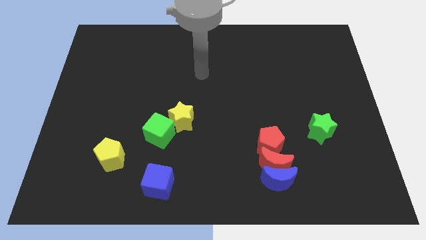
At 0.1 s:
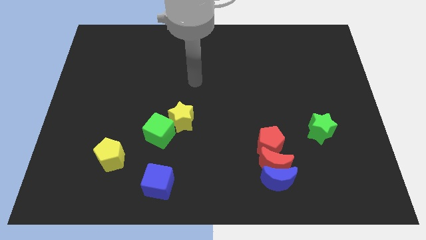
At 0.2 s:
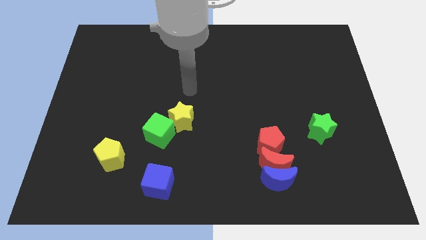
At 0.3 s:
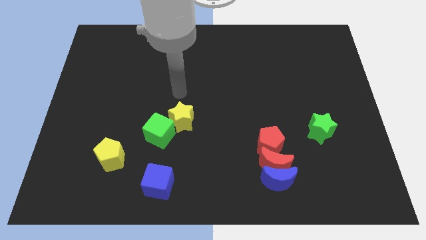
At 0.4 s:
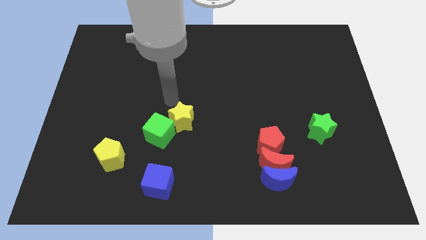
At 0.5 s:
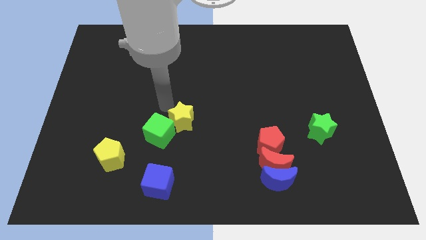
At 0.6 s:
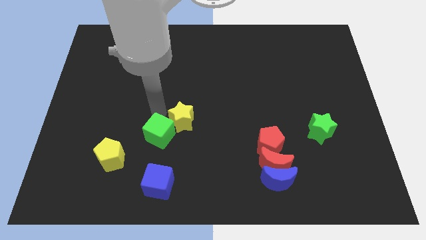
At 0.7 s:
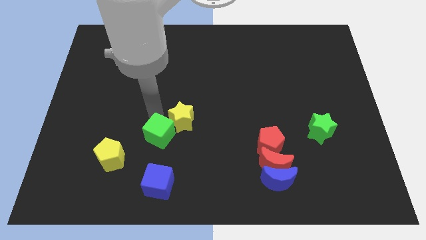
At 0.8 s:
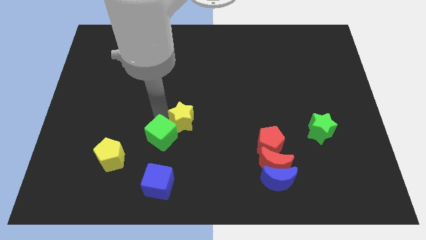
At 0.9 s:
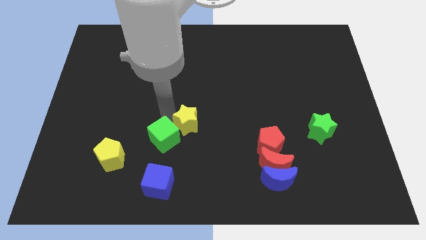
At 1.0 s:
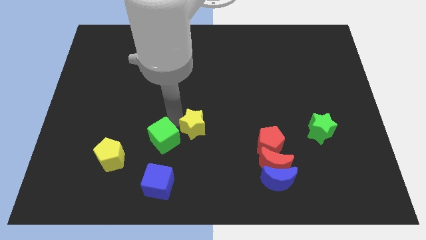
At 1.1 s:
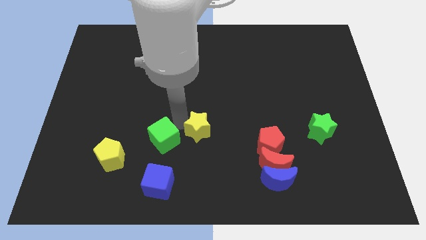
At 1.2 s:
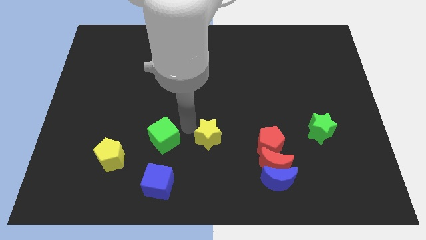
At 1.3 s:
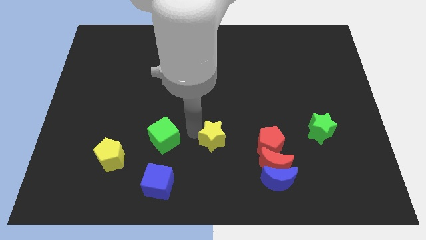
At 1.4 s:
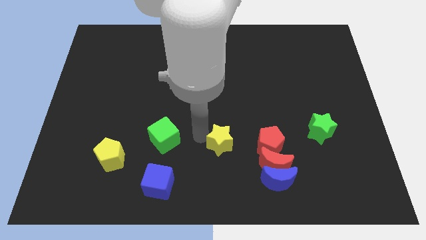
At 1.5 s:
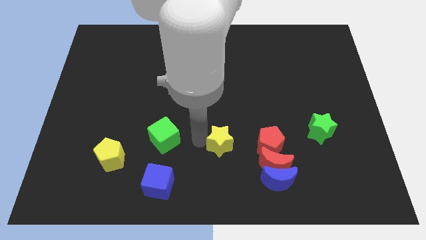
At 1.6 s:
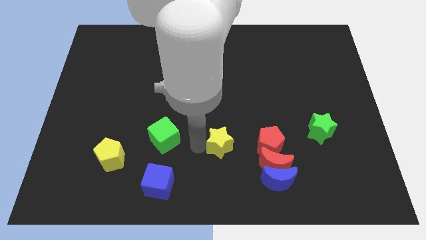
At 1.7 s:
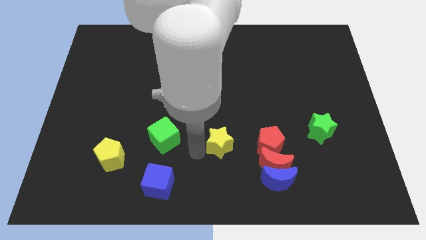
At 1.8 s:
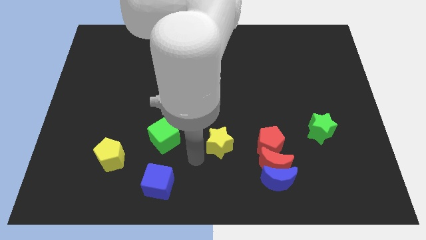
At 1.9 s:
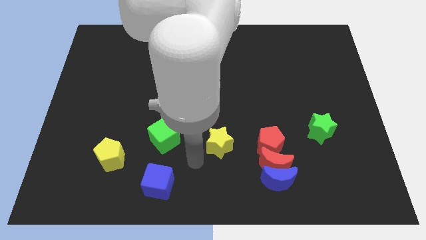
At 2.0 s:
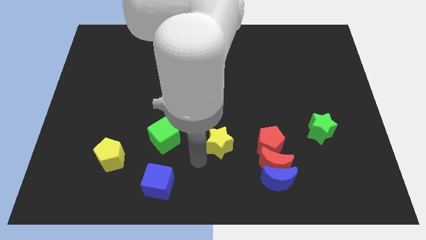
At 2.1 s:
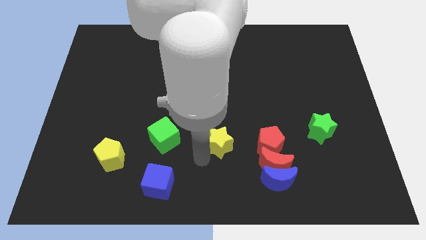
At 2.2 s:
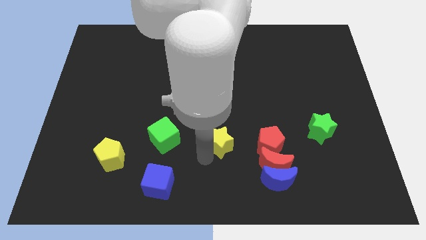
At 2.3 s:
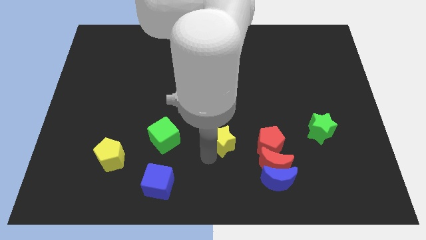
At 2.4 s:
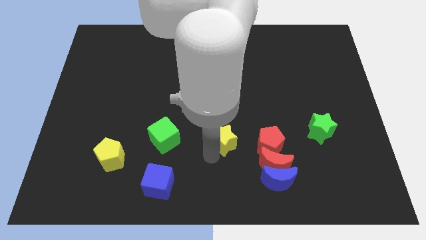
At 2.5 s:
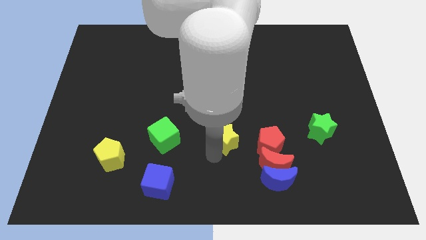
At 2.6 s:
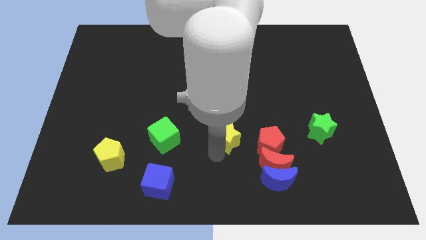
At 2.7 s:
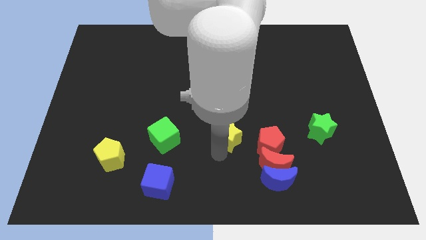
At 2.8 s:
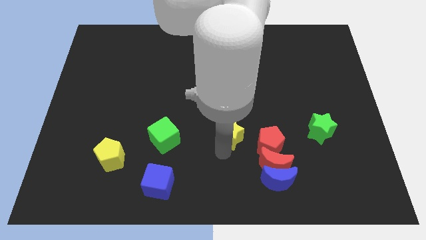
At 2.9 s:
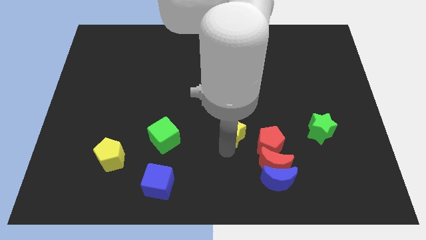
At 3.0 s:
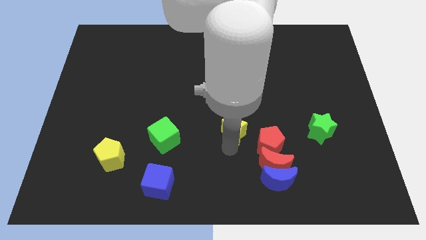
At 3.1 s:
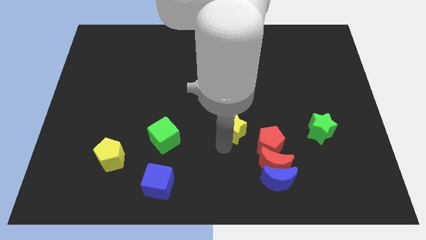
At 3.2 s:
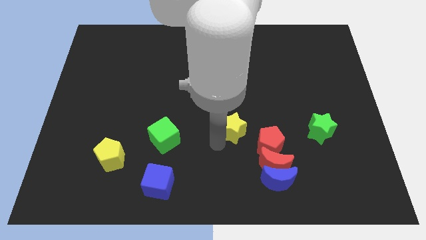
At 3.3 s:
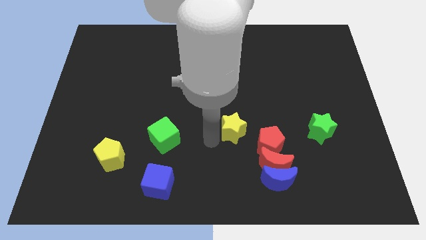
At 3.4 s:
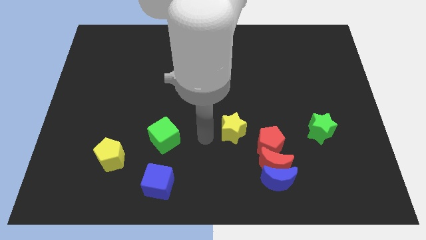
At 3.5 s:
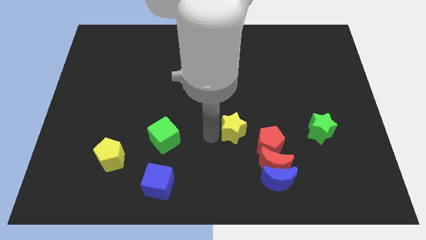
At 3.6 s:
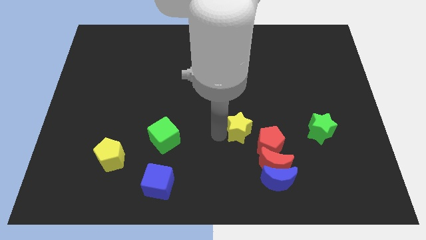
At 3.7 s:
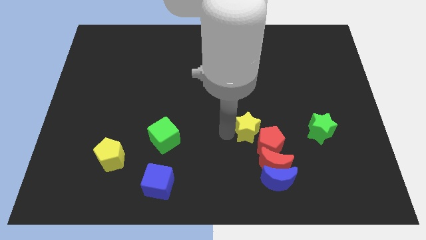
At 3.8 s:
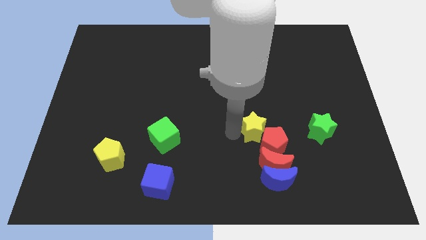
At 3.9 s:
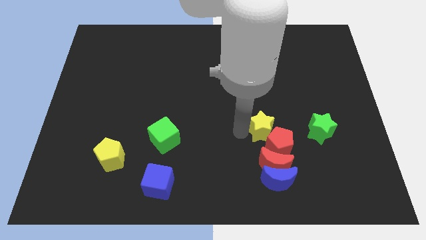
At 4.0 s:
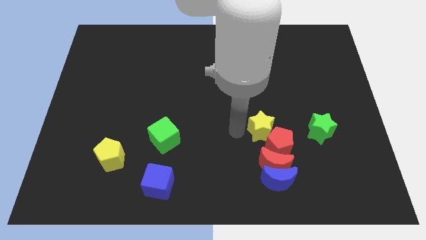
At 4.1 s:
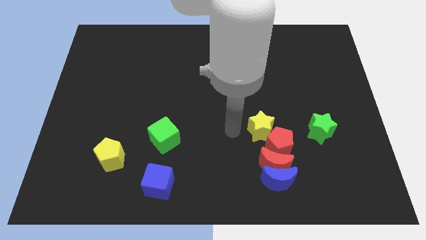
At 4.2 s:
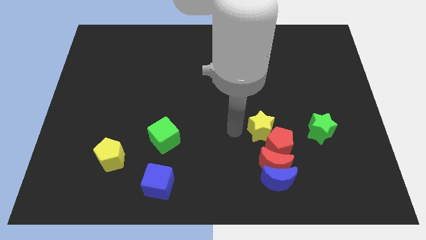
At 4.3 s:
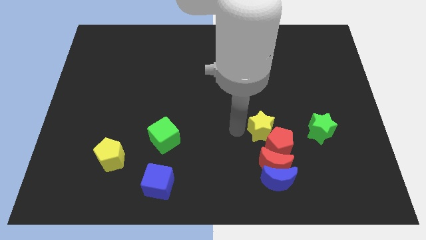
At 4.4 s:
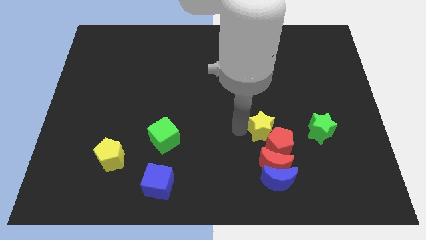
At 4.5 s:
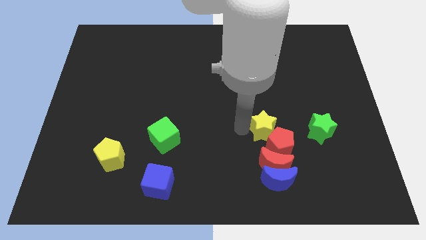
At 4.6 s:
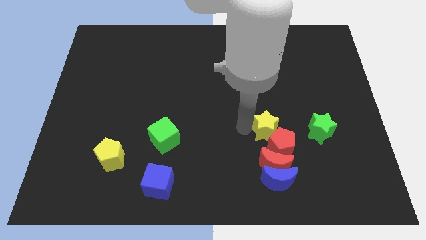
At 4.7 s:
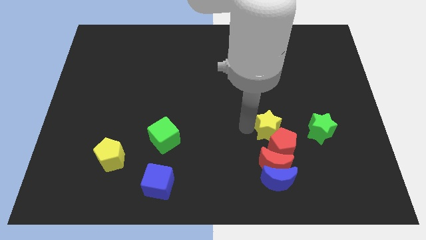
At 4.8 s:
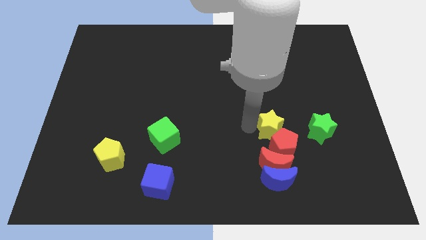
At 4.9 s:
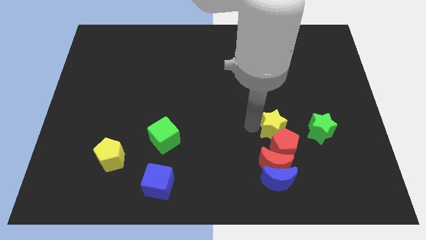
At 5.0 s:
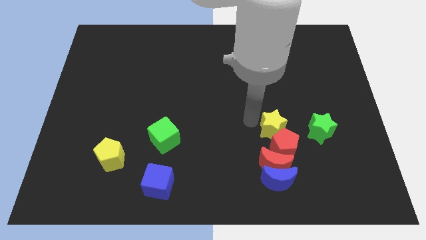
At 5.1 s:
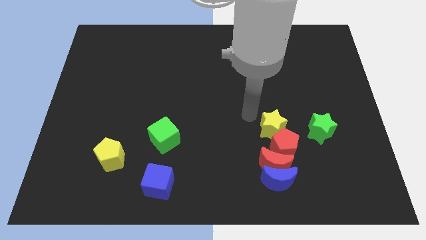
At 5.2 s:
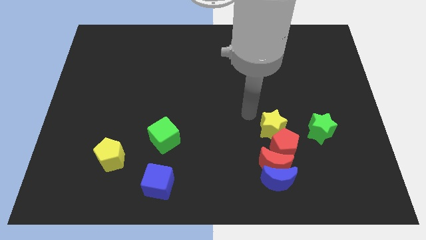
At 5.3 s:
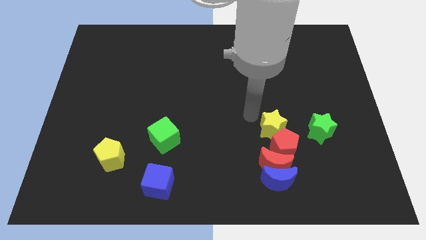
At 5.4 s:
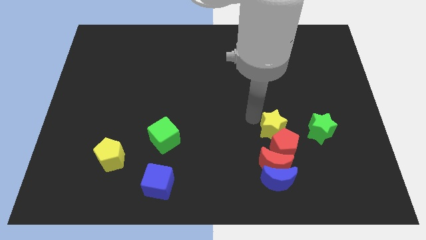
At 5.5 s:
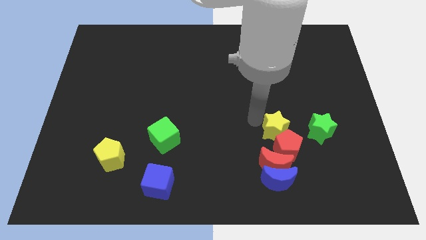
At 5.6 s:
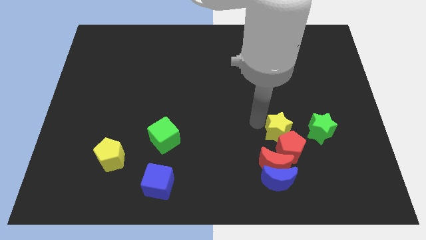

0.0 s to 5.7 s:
put the yellow star diagonally up and to the right of the red moon

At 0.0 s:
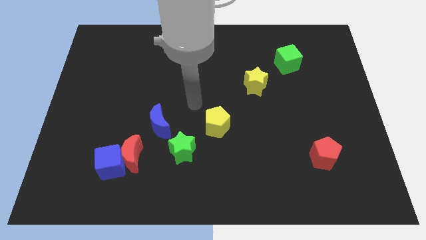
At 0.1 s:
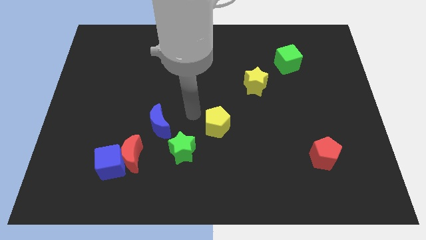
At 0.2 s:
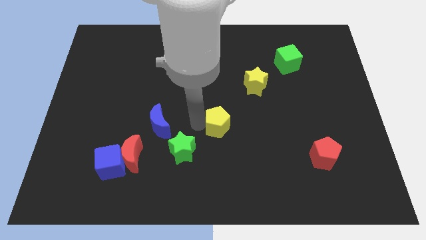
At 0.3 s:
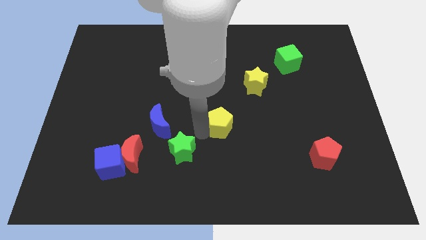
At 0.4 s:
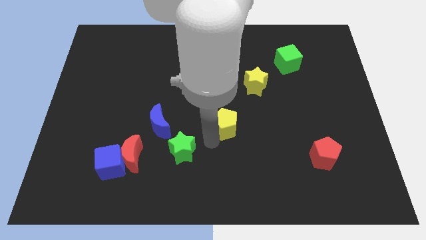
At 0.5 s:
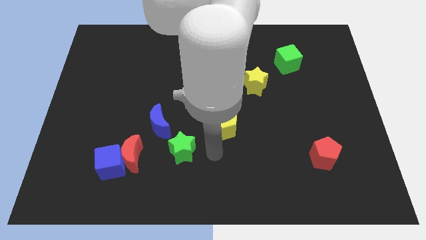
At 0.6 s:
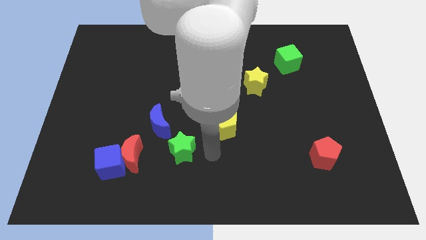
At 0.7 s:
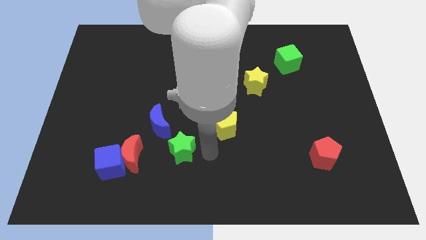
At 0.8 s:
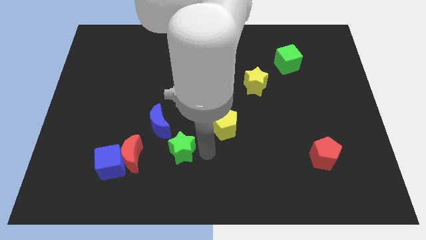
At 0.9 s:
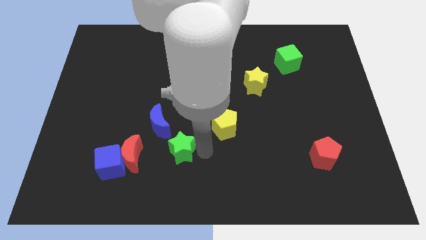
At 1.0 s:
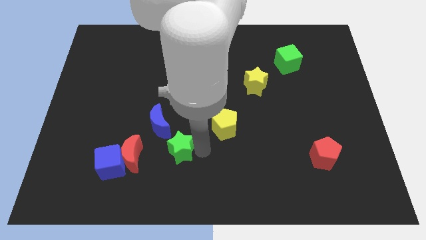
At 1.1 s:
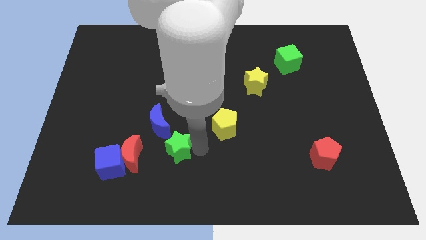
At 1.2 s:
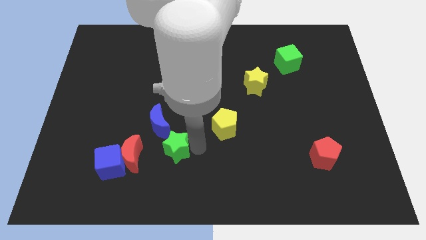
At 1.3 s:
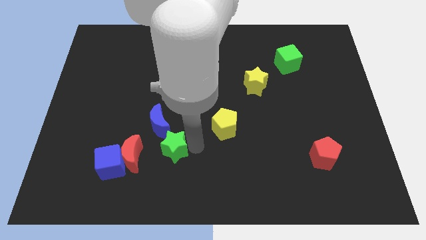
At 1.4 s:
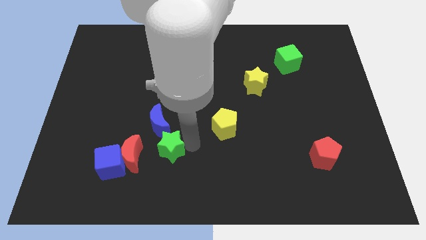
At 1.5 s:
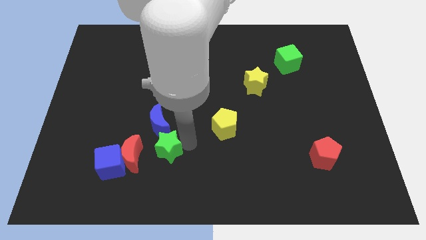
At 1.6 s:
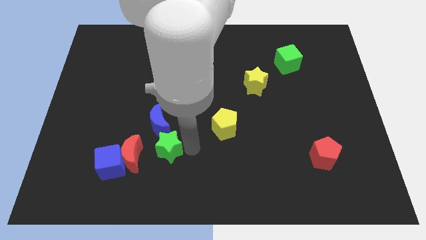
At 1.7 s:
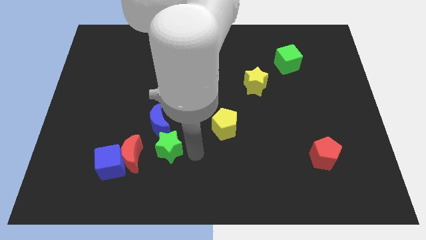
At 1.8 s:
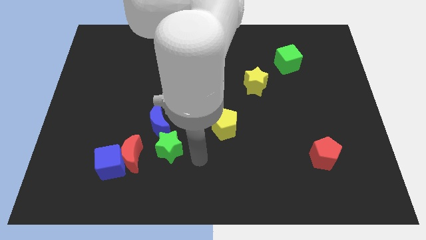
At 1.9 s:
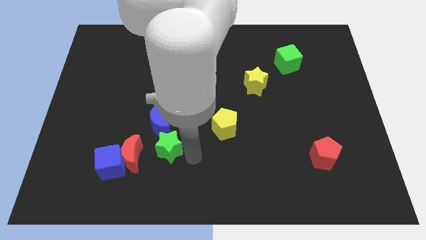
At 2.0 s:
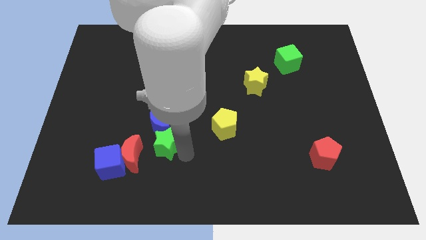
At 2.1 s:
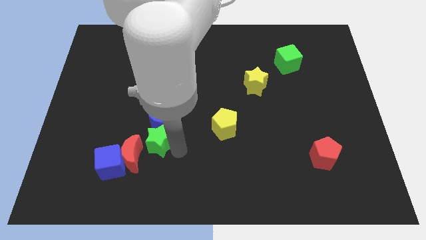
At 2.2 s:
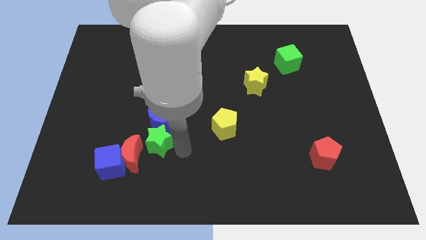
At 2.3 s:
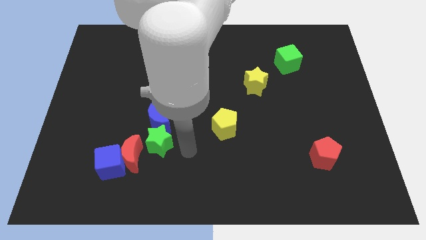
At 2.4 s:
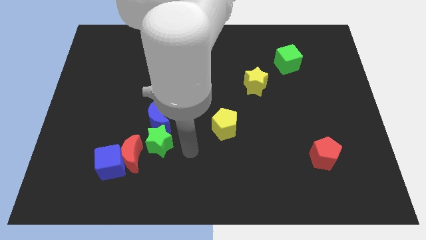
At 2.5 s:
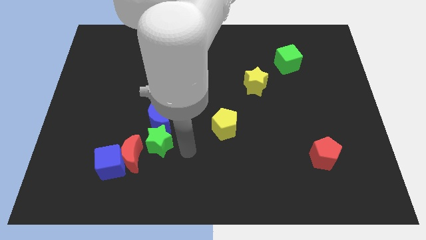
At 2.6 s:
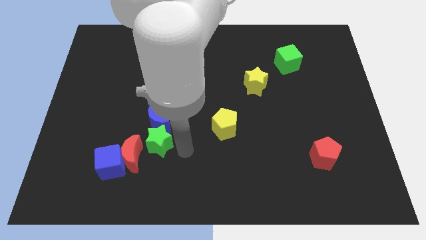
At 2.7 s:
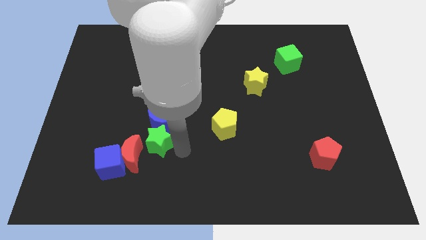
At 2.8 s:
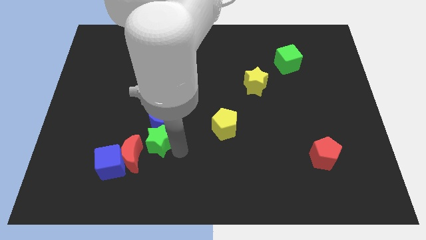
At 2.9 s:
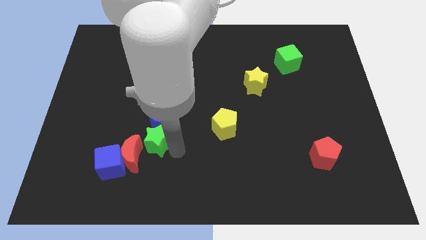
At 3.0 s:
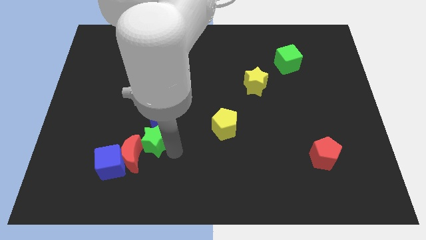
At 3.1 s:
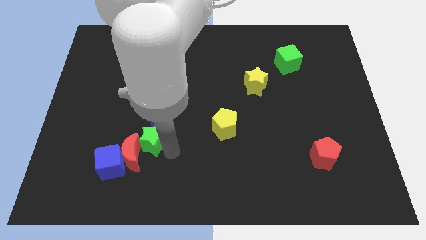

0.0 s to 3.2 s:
slide the green star above the red moon
